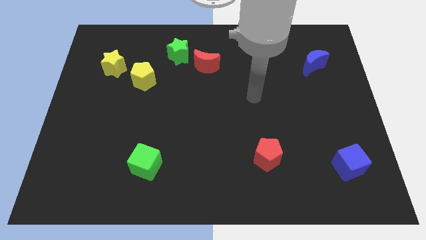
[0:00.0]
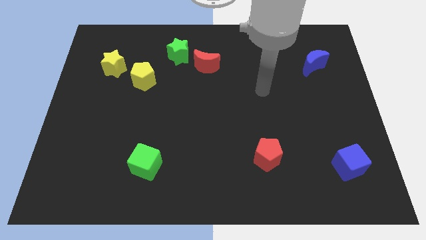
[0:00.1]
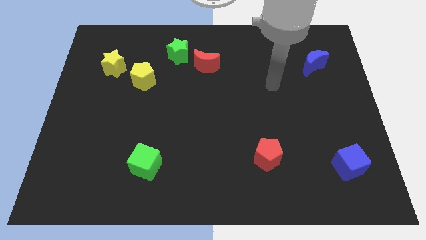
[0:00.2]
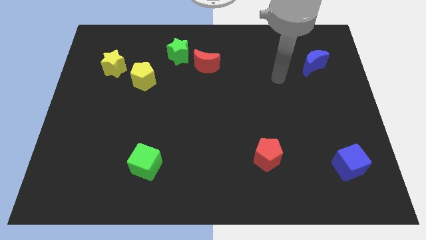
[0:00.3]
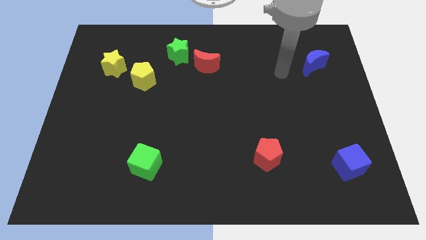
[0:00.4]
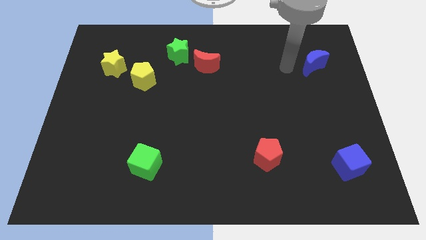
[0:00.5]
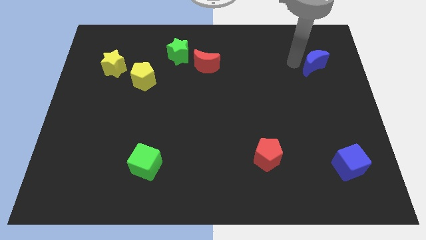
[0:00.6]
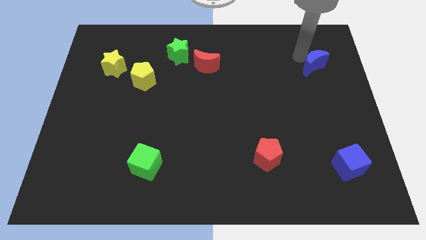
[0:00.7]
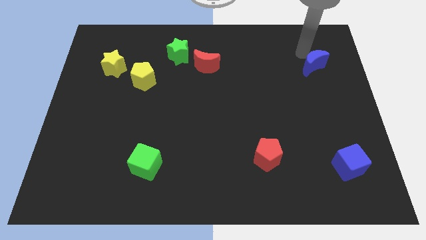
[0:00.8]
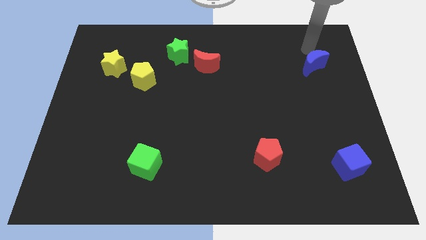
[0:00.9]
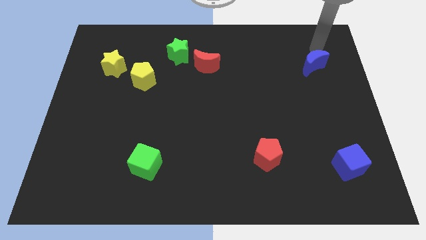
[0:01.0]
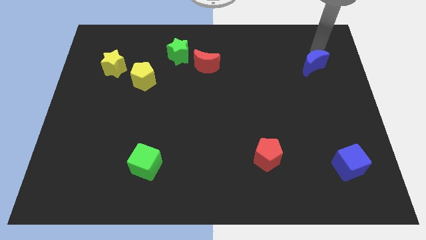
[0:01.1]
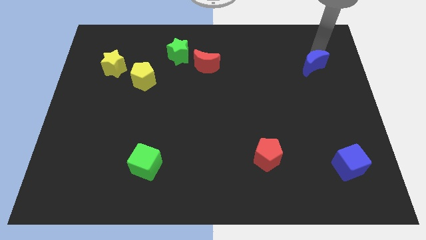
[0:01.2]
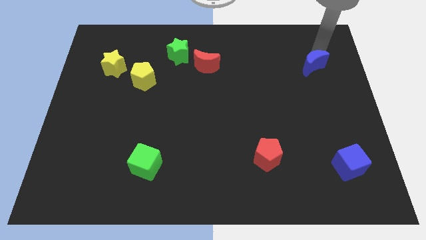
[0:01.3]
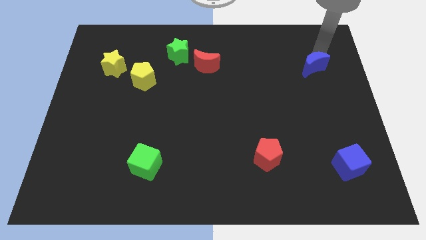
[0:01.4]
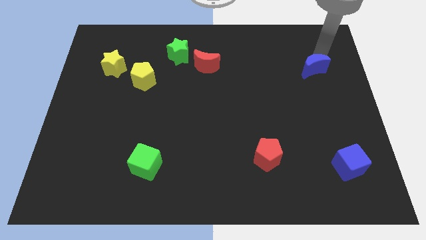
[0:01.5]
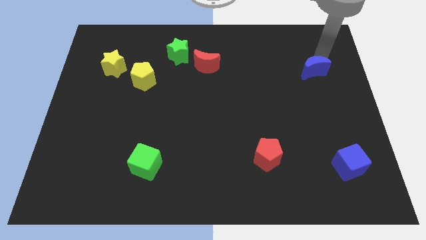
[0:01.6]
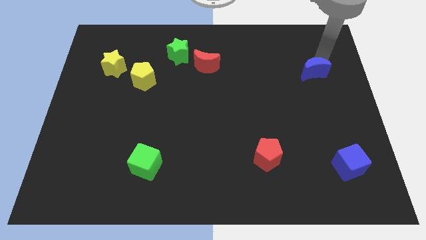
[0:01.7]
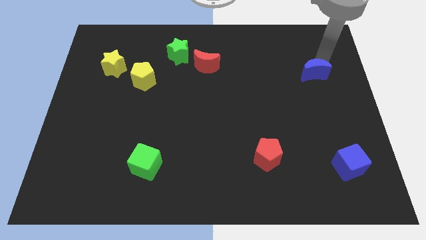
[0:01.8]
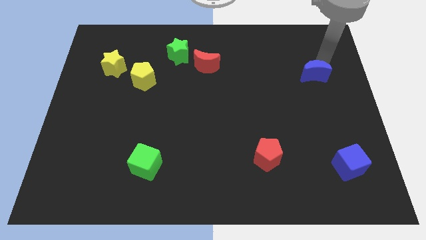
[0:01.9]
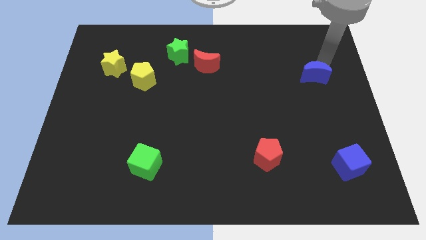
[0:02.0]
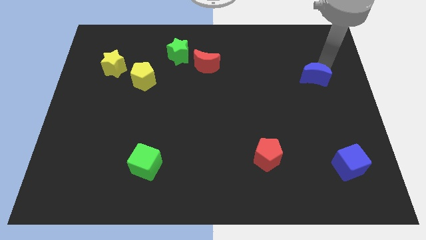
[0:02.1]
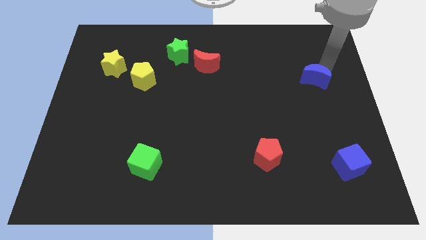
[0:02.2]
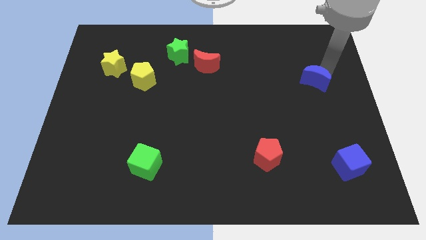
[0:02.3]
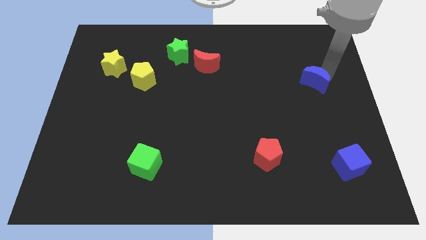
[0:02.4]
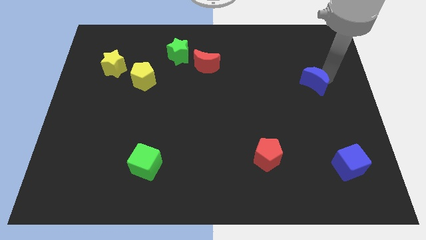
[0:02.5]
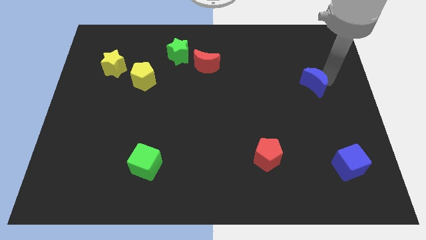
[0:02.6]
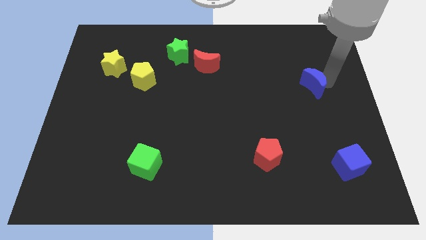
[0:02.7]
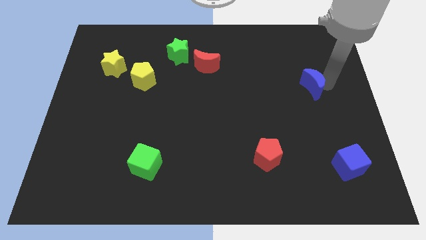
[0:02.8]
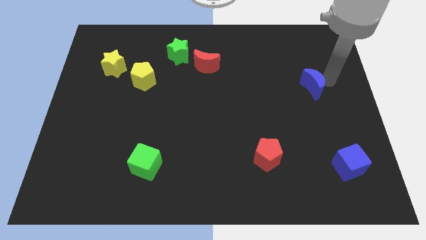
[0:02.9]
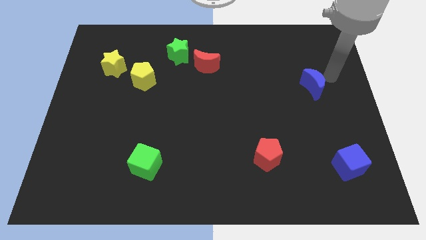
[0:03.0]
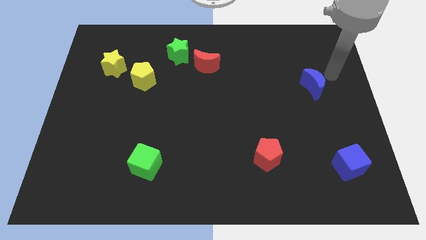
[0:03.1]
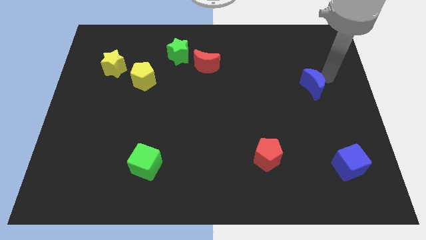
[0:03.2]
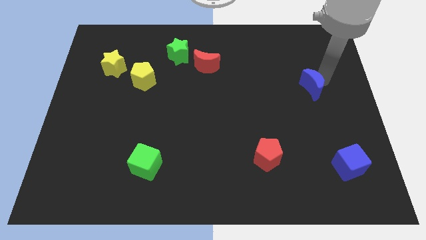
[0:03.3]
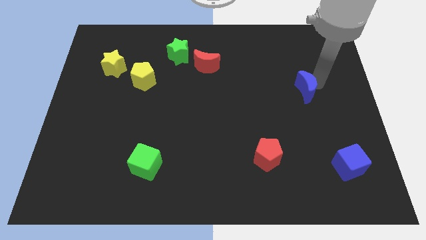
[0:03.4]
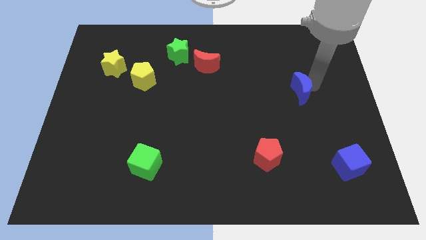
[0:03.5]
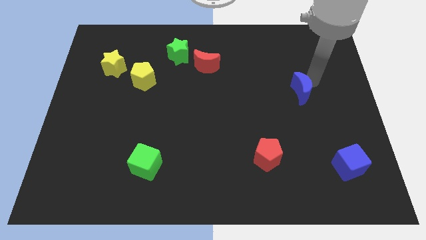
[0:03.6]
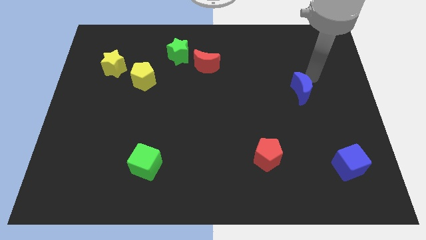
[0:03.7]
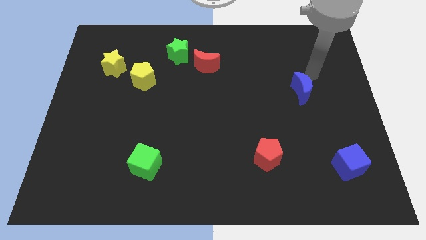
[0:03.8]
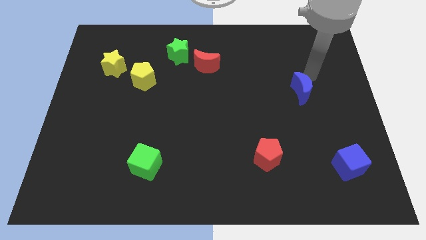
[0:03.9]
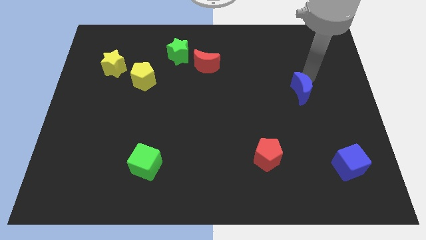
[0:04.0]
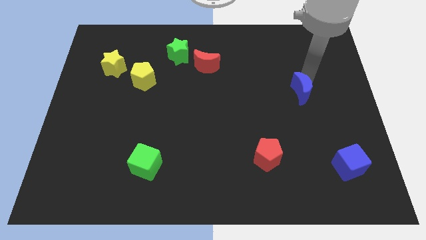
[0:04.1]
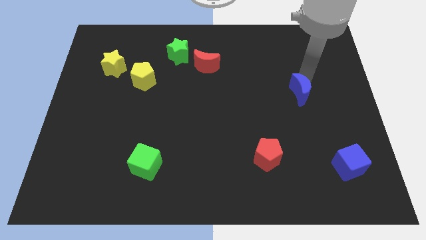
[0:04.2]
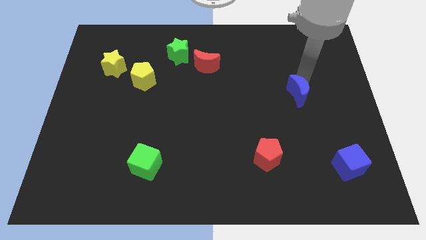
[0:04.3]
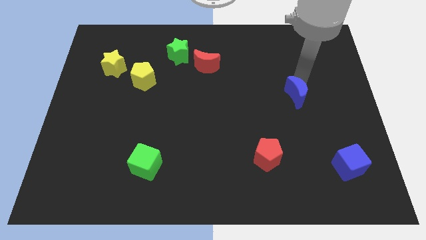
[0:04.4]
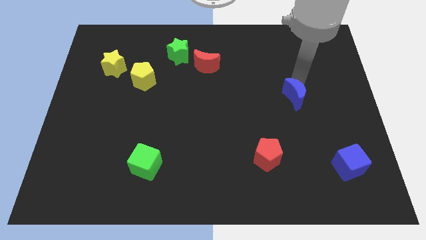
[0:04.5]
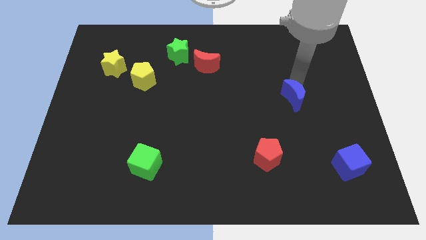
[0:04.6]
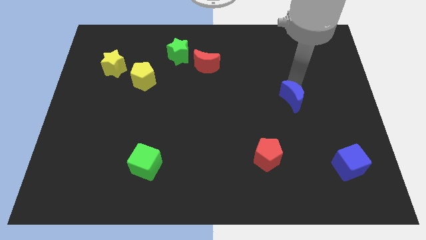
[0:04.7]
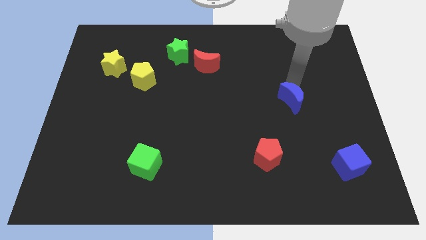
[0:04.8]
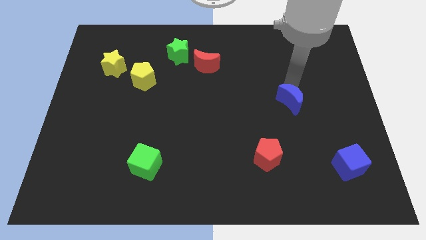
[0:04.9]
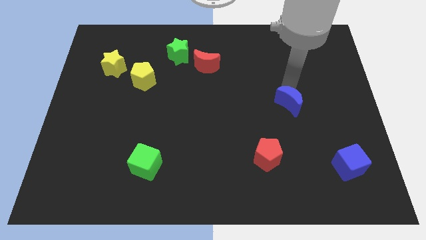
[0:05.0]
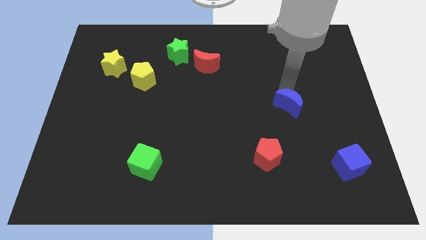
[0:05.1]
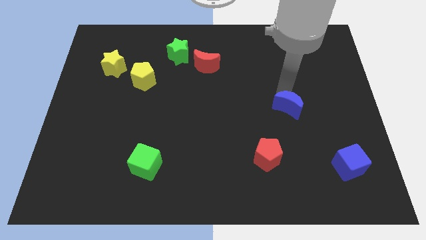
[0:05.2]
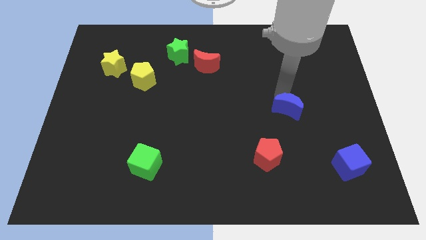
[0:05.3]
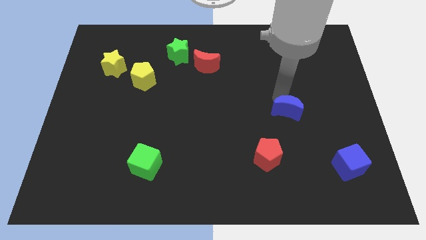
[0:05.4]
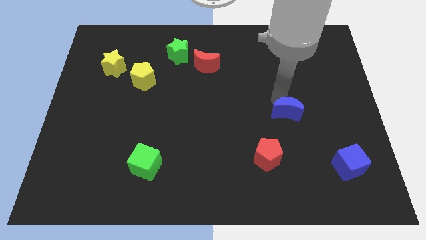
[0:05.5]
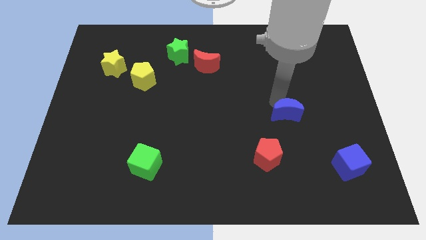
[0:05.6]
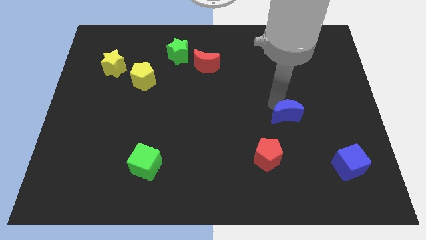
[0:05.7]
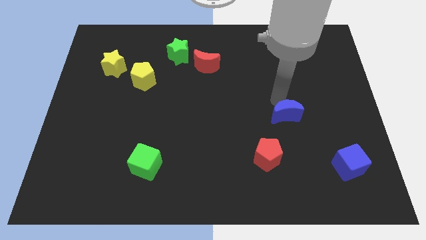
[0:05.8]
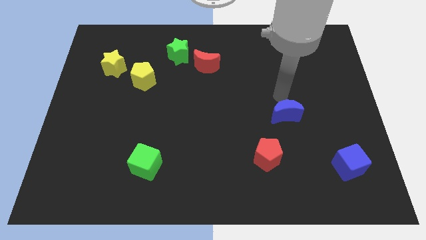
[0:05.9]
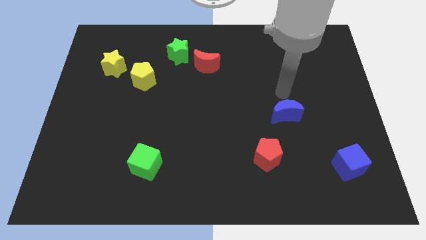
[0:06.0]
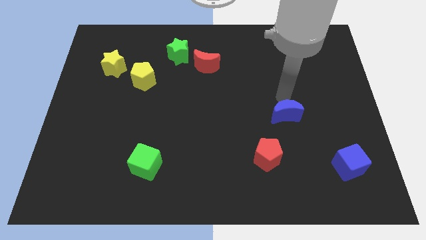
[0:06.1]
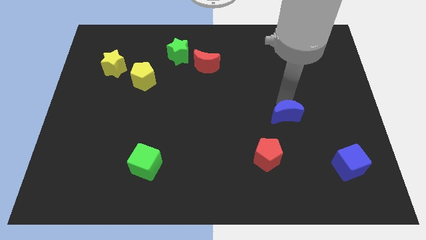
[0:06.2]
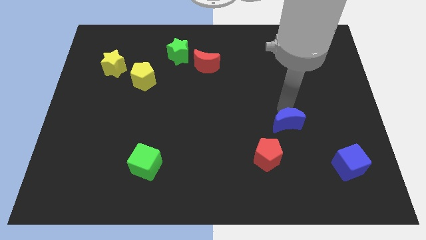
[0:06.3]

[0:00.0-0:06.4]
move the blue moon diagonally up and to the right of the red pentagon

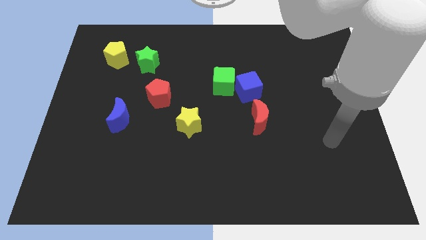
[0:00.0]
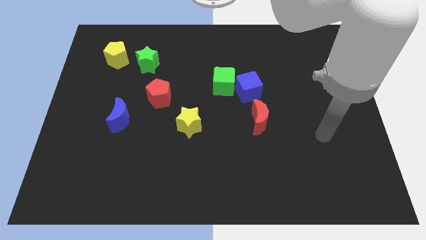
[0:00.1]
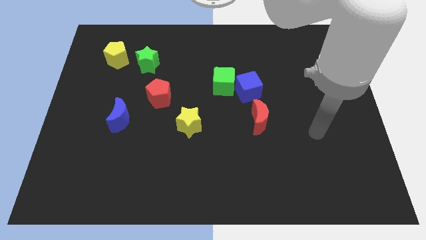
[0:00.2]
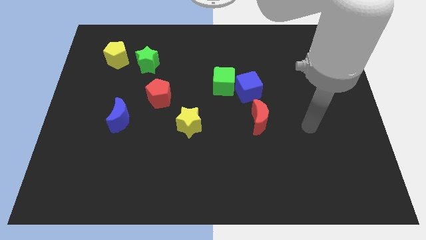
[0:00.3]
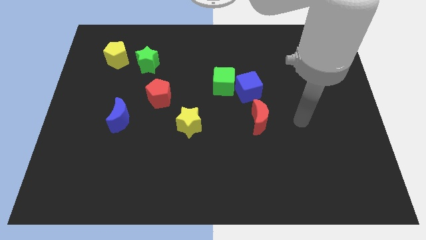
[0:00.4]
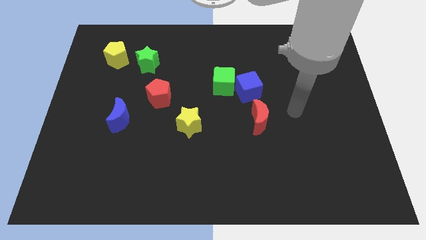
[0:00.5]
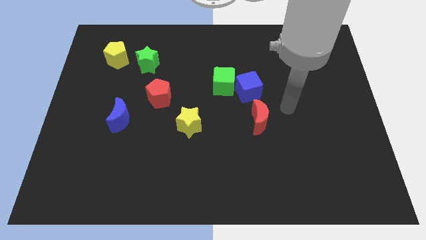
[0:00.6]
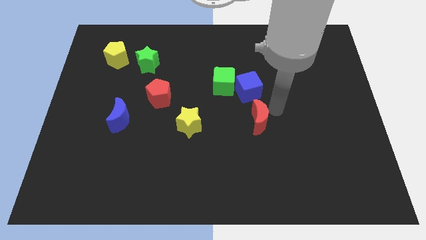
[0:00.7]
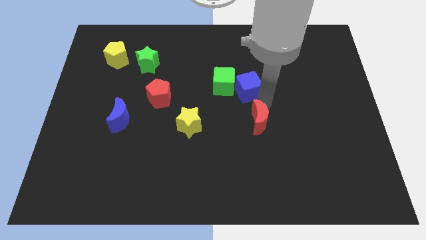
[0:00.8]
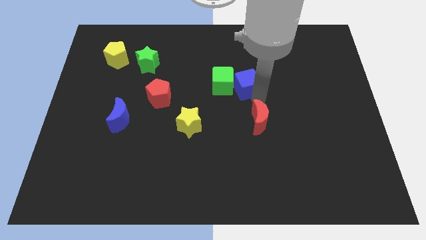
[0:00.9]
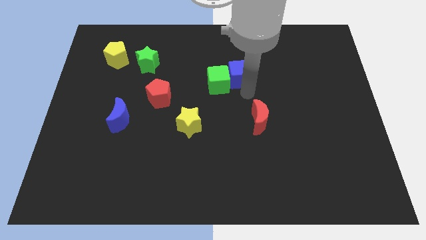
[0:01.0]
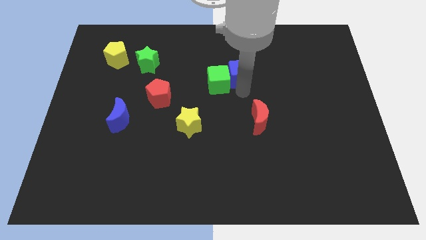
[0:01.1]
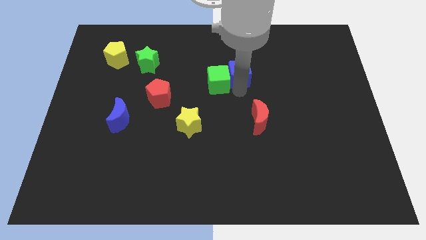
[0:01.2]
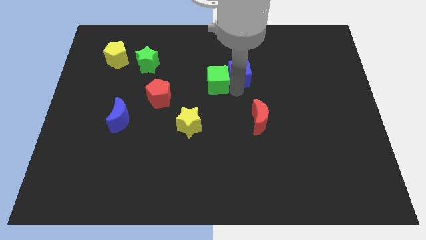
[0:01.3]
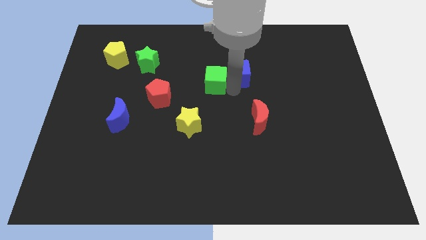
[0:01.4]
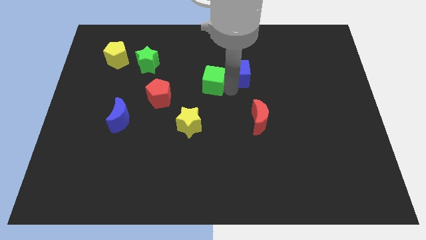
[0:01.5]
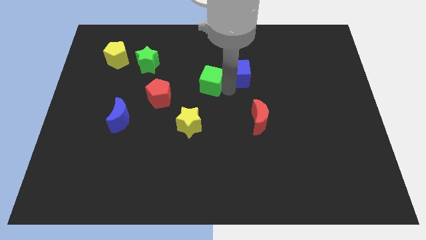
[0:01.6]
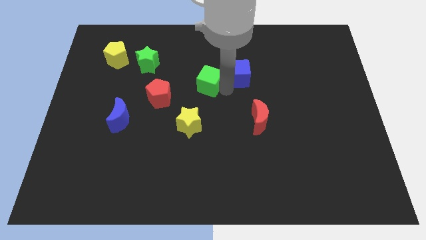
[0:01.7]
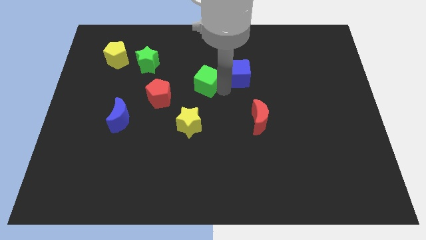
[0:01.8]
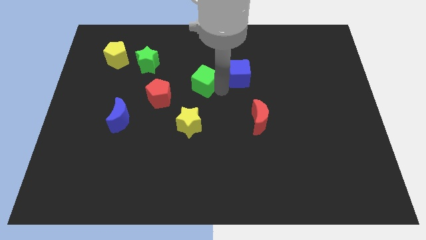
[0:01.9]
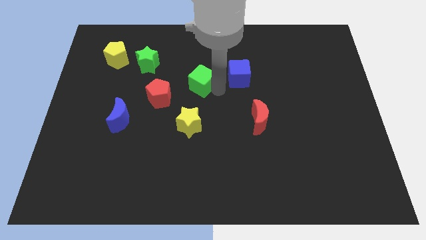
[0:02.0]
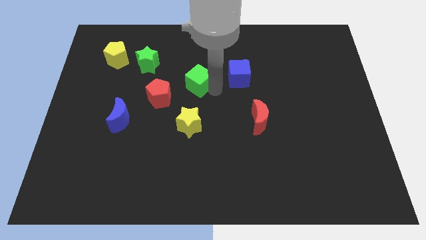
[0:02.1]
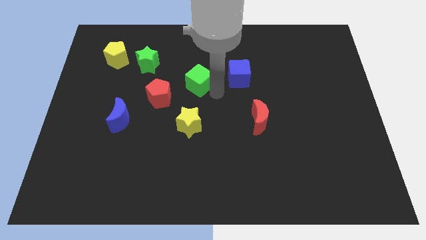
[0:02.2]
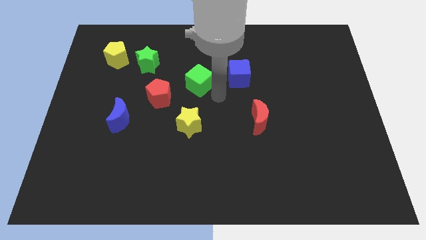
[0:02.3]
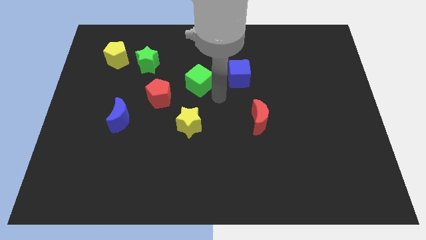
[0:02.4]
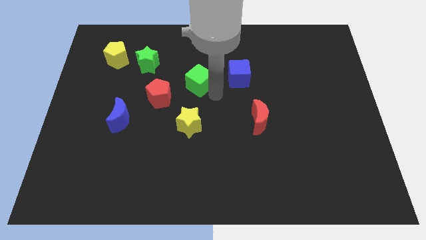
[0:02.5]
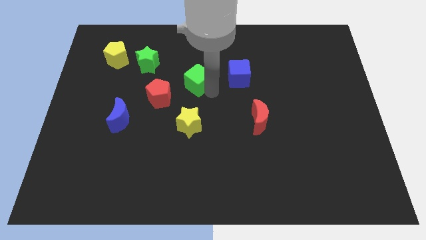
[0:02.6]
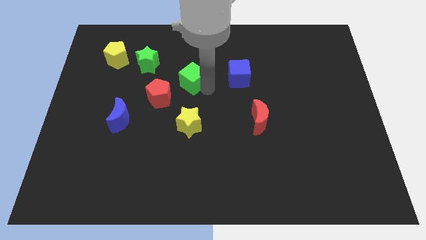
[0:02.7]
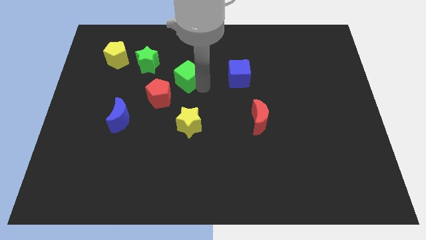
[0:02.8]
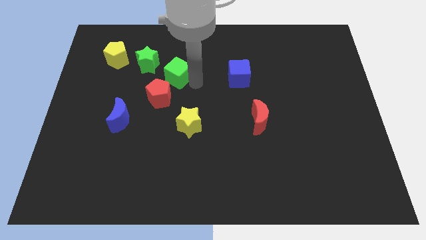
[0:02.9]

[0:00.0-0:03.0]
put the green cube above the red pentagon
